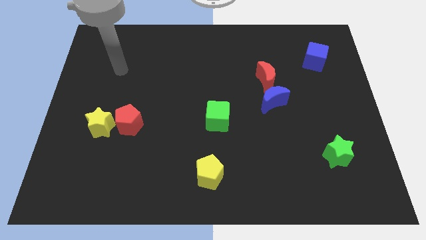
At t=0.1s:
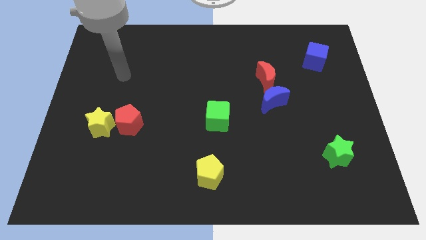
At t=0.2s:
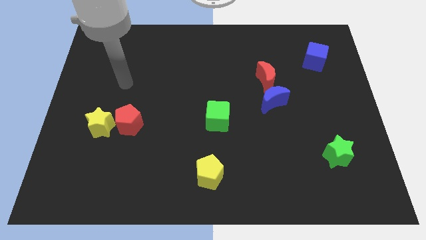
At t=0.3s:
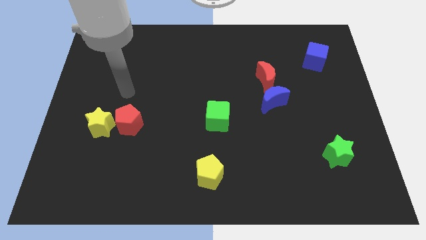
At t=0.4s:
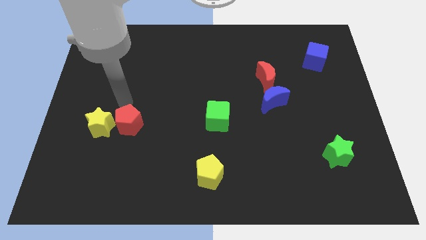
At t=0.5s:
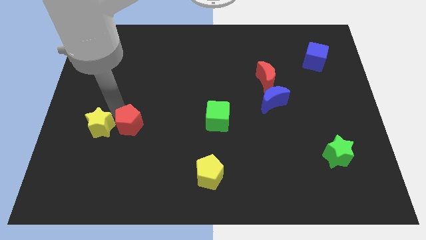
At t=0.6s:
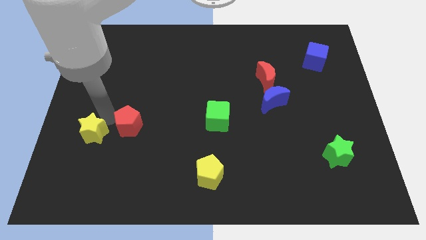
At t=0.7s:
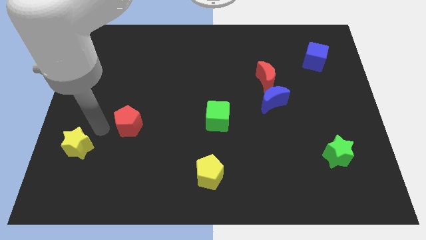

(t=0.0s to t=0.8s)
move the red pentagon away from the yellow star

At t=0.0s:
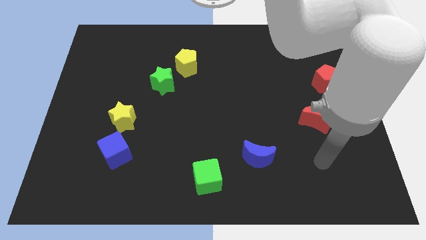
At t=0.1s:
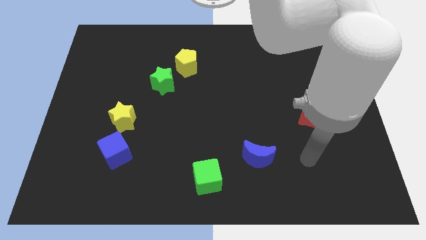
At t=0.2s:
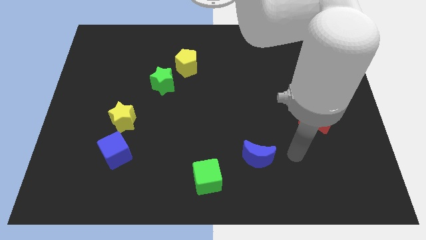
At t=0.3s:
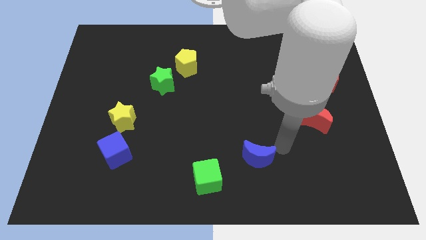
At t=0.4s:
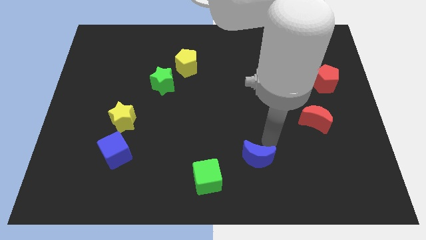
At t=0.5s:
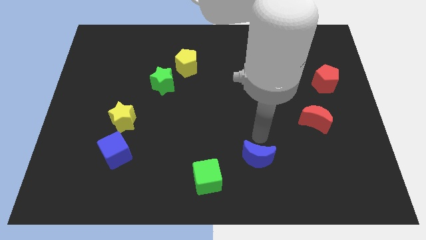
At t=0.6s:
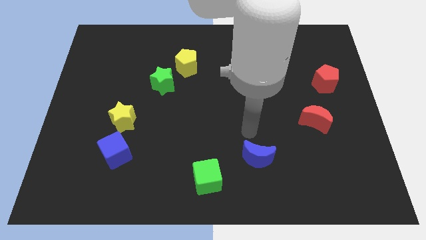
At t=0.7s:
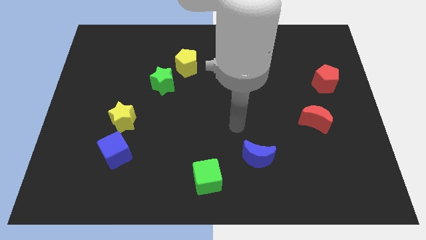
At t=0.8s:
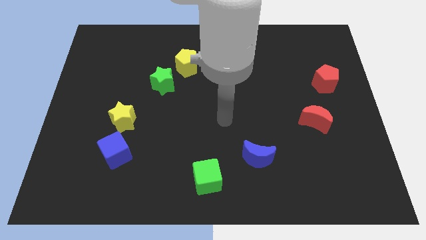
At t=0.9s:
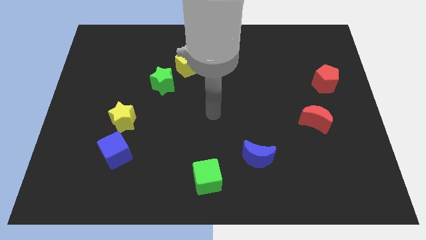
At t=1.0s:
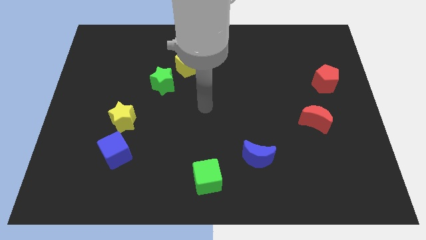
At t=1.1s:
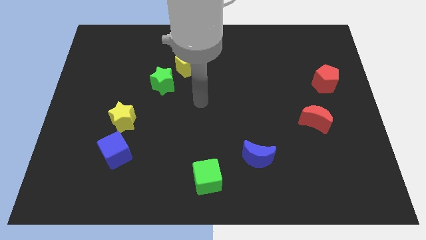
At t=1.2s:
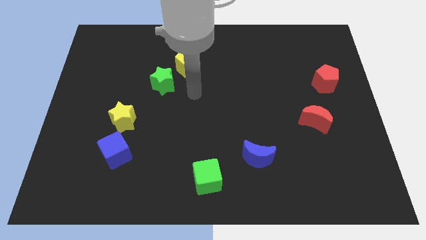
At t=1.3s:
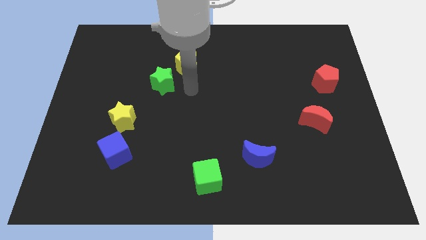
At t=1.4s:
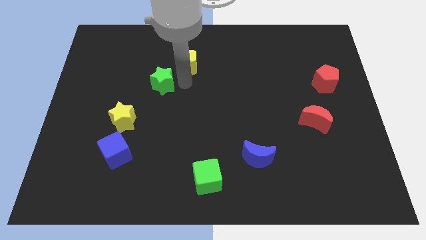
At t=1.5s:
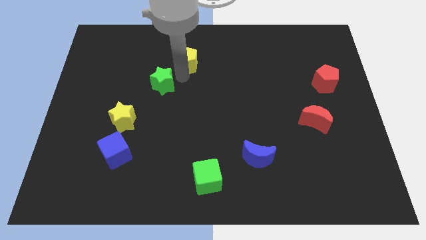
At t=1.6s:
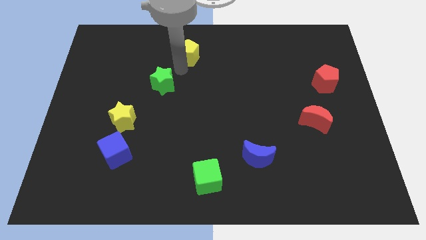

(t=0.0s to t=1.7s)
separate the green star from the yellow pentagon

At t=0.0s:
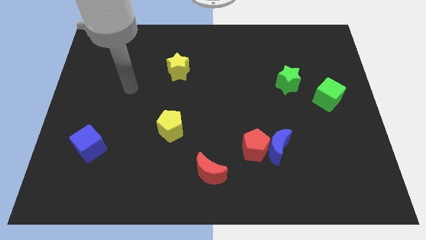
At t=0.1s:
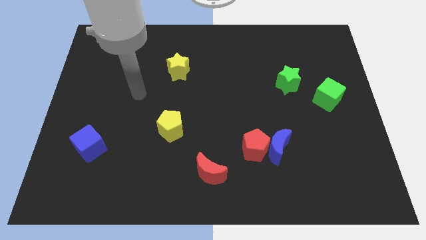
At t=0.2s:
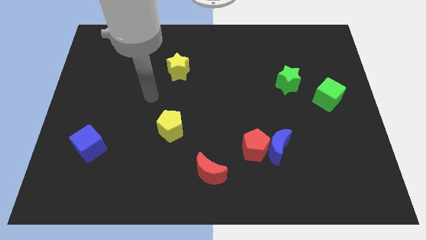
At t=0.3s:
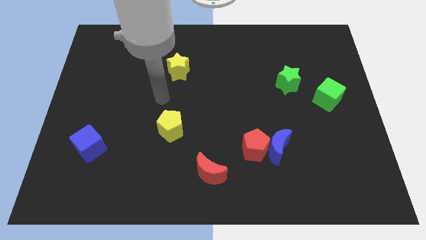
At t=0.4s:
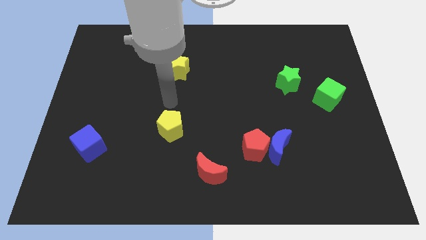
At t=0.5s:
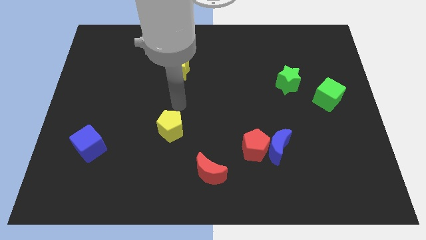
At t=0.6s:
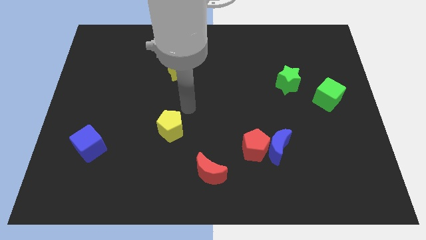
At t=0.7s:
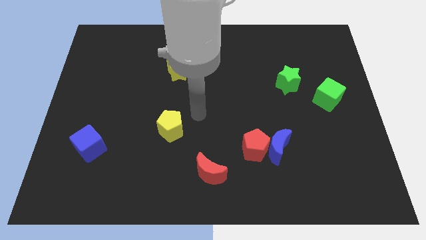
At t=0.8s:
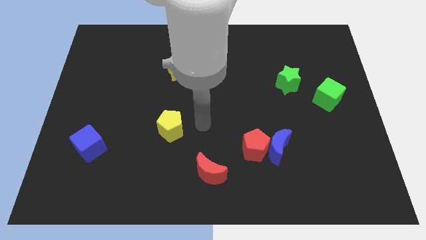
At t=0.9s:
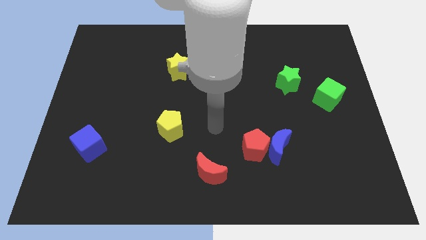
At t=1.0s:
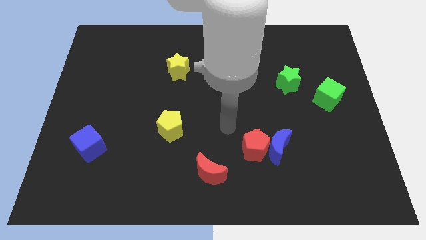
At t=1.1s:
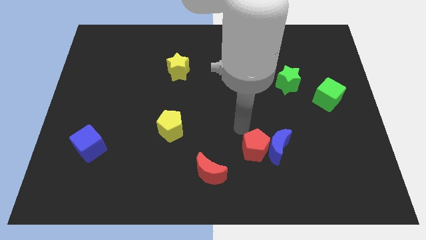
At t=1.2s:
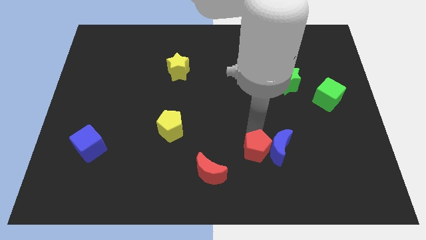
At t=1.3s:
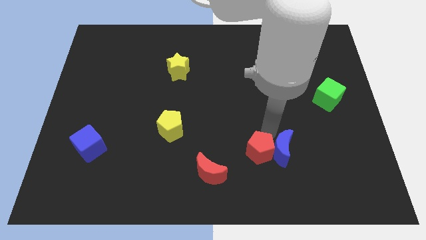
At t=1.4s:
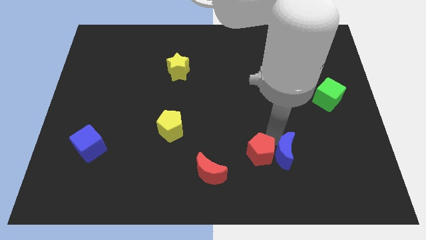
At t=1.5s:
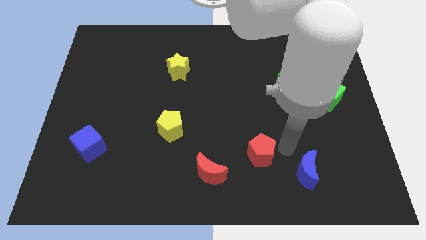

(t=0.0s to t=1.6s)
separate the red pentagon from the blue moon

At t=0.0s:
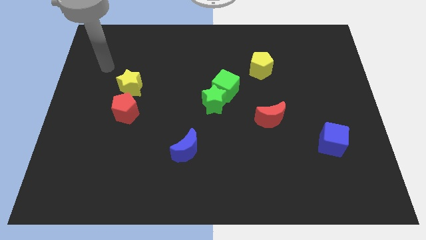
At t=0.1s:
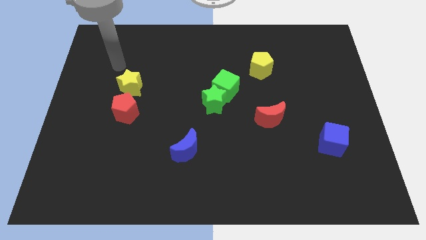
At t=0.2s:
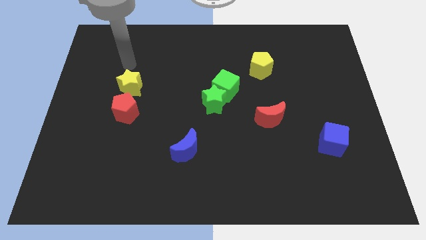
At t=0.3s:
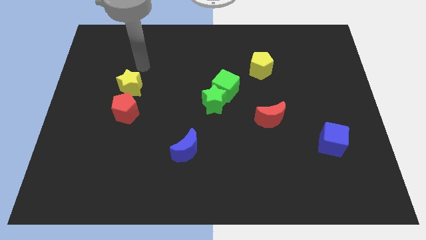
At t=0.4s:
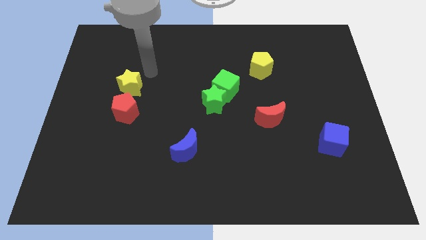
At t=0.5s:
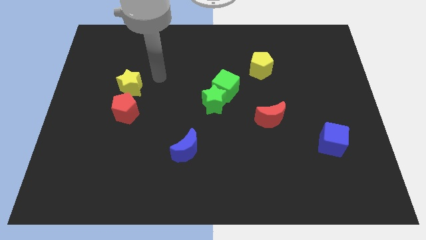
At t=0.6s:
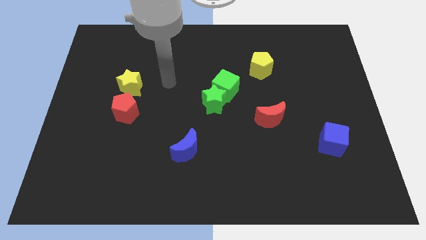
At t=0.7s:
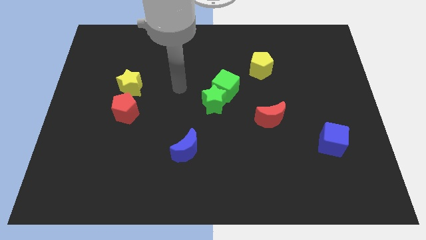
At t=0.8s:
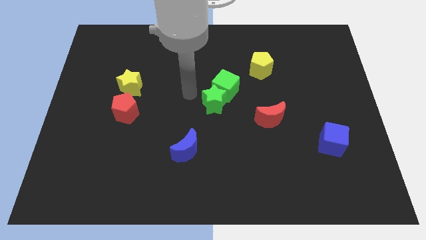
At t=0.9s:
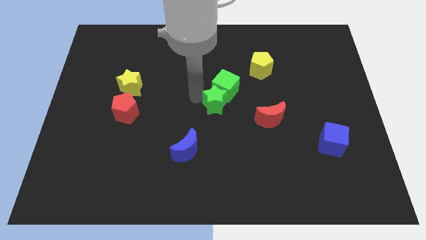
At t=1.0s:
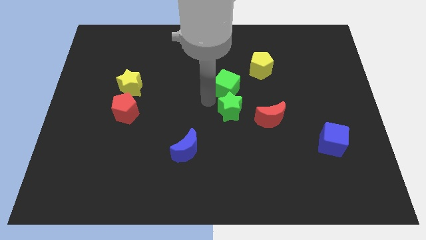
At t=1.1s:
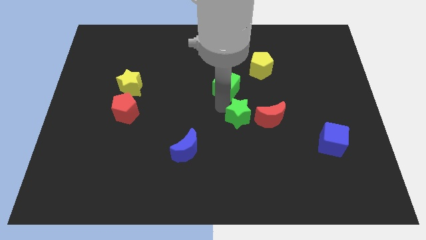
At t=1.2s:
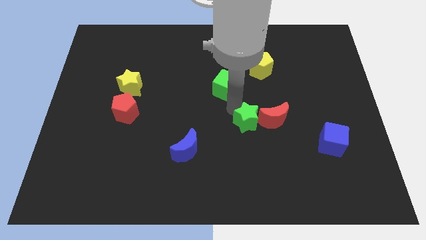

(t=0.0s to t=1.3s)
separate the green cube from the green star

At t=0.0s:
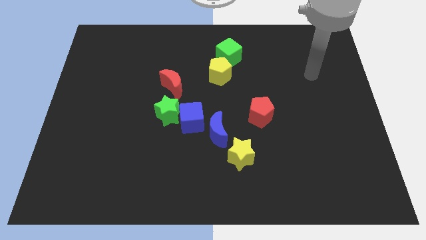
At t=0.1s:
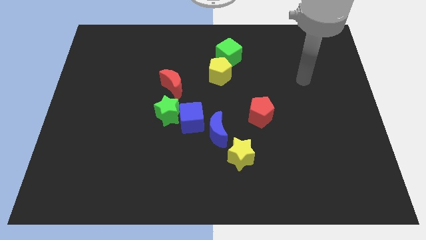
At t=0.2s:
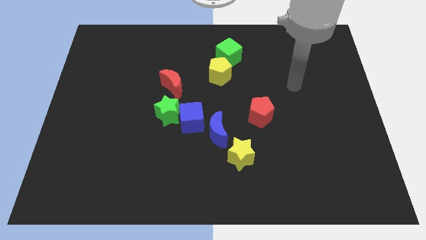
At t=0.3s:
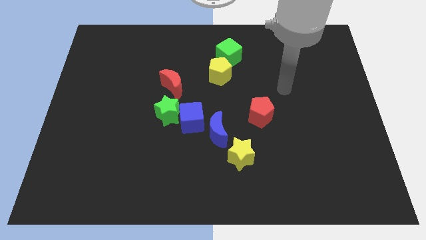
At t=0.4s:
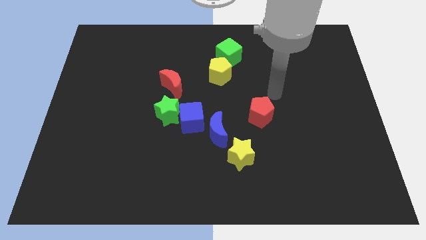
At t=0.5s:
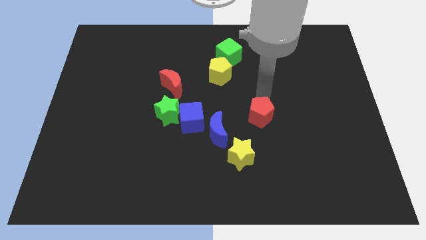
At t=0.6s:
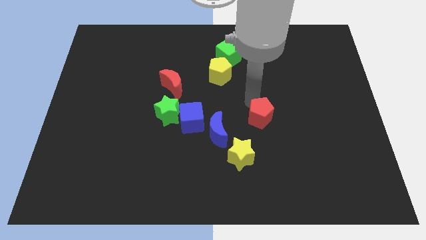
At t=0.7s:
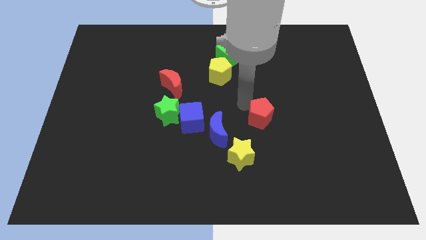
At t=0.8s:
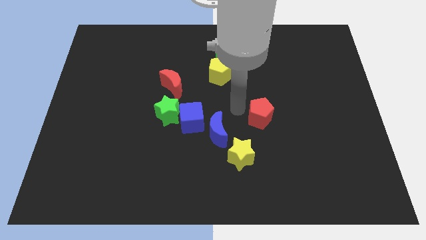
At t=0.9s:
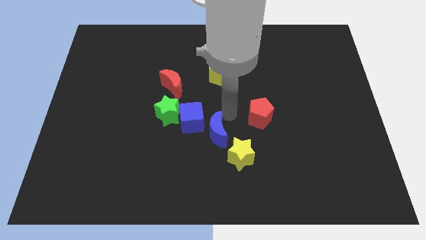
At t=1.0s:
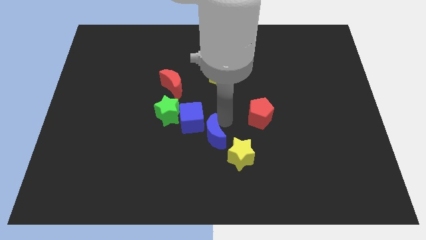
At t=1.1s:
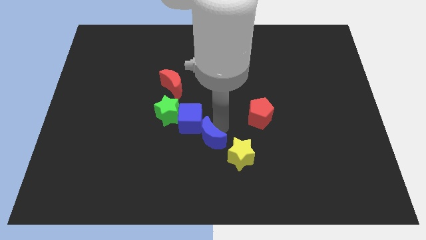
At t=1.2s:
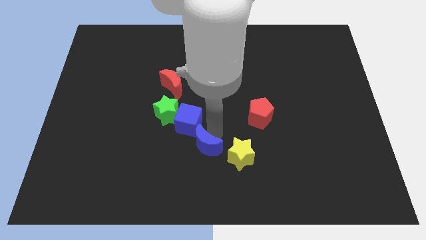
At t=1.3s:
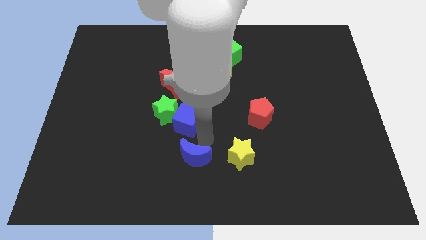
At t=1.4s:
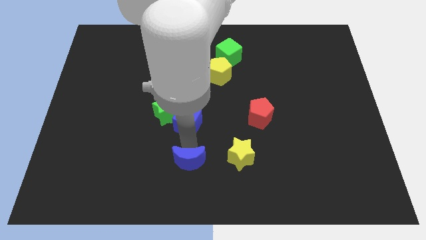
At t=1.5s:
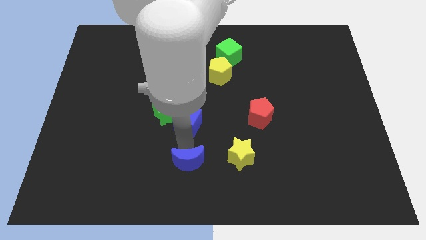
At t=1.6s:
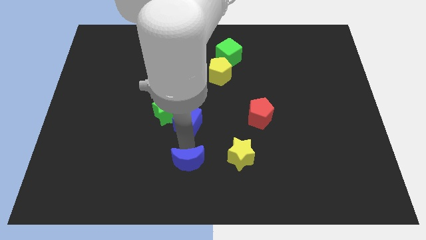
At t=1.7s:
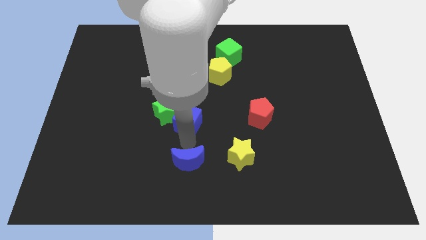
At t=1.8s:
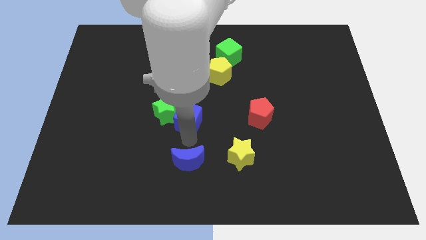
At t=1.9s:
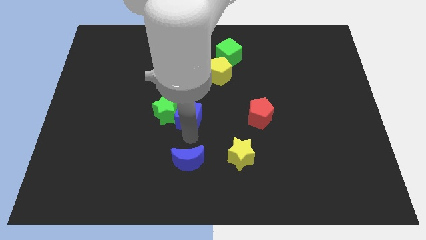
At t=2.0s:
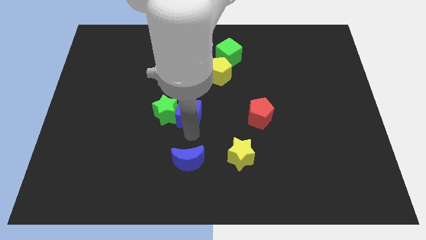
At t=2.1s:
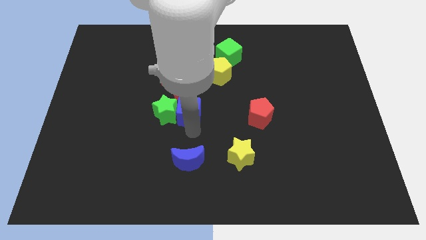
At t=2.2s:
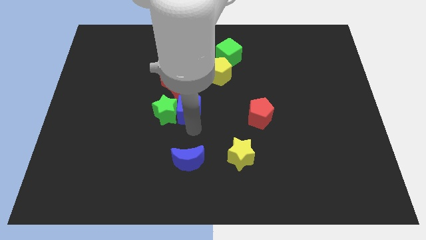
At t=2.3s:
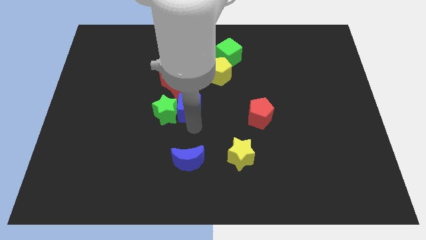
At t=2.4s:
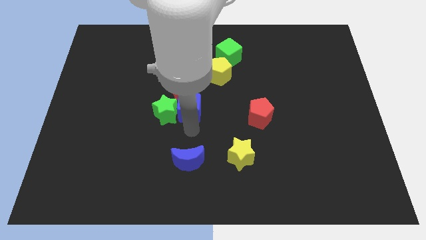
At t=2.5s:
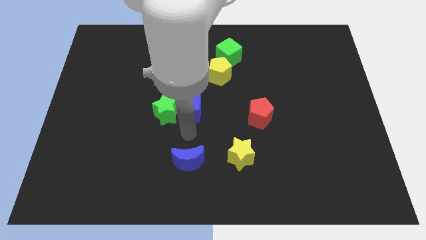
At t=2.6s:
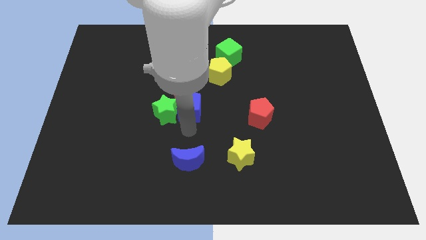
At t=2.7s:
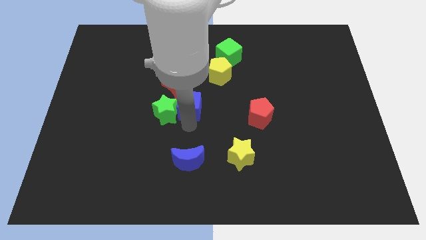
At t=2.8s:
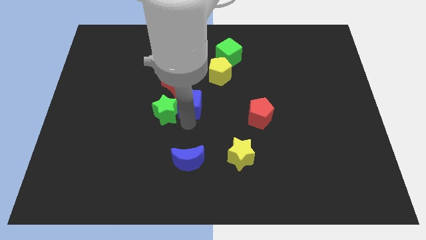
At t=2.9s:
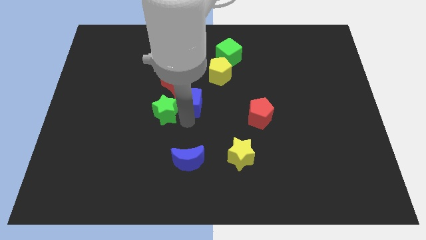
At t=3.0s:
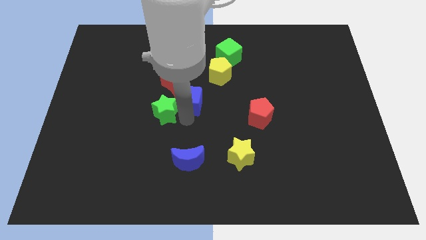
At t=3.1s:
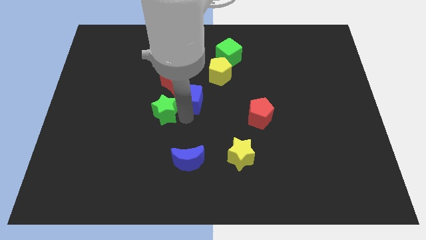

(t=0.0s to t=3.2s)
separate the blue cube from the green star and blue moon

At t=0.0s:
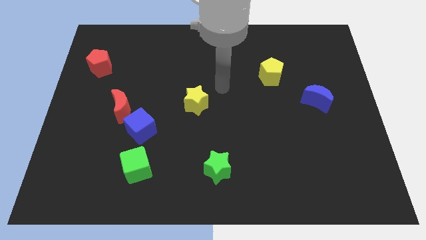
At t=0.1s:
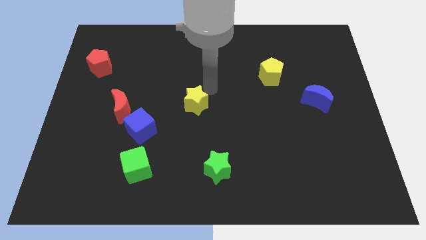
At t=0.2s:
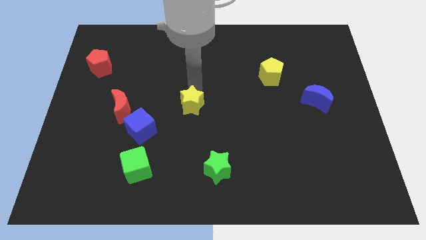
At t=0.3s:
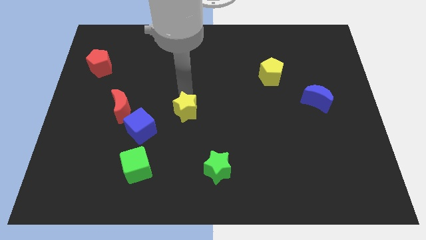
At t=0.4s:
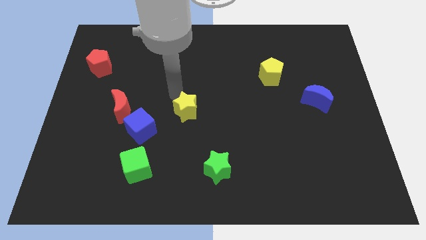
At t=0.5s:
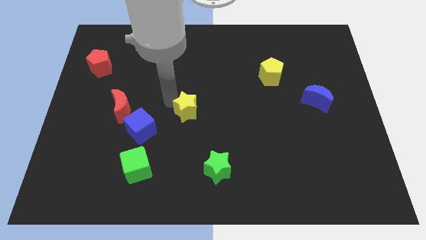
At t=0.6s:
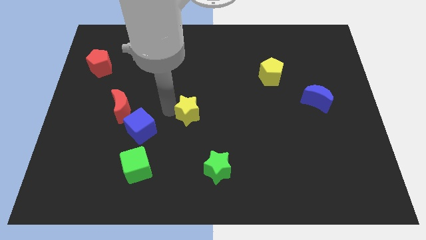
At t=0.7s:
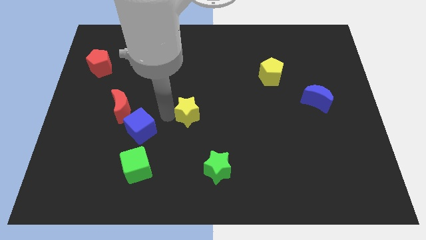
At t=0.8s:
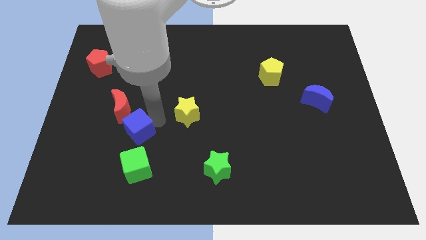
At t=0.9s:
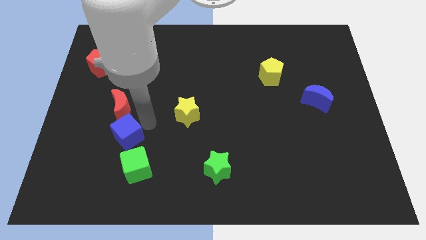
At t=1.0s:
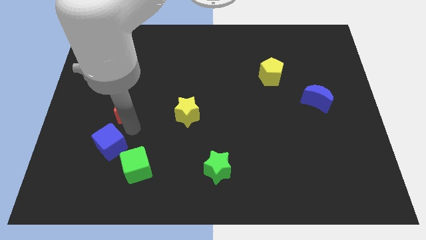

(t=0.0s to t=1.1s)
pull the red moon apart from the blue cube
